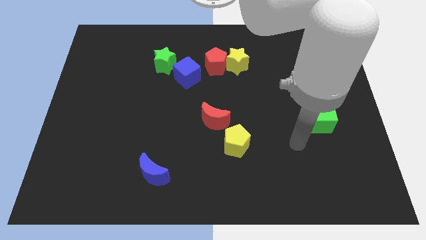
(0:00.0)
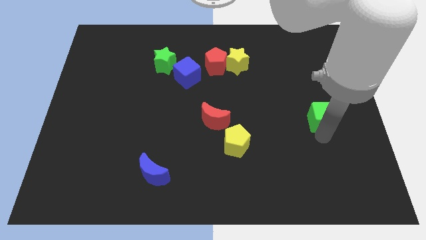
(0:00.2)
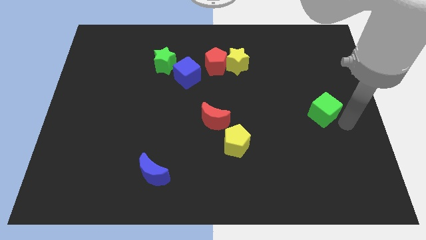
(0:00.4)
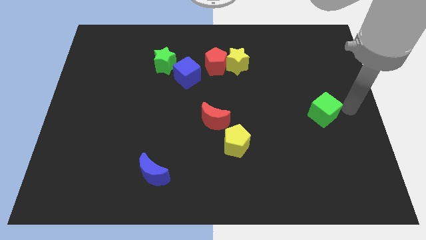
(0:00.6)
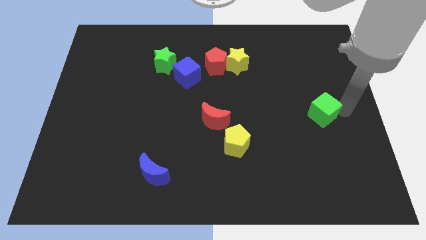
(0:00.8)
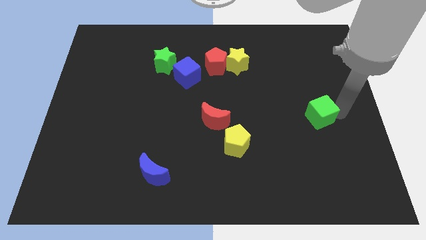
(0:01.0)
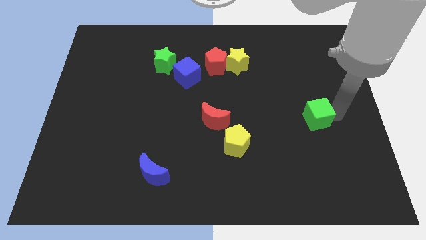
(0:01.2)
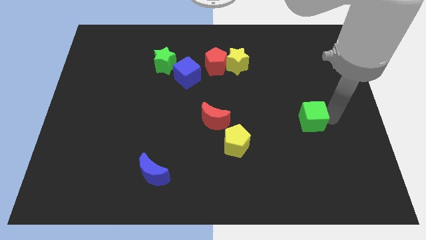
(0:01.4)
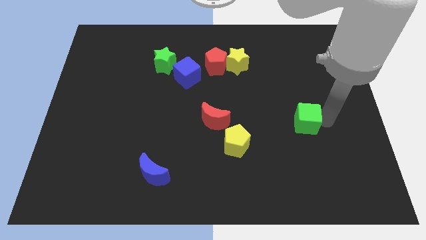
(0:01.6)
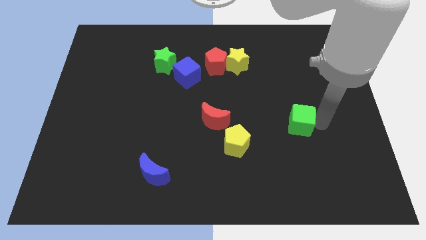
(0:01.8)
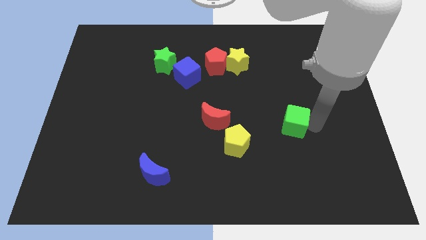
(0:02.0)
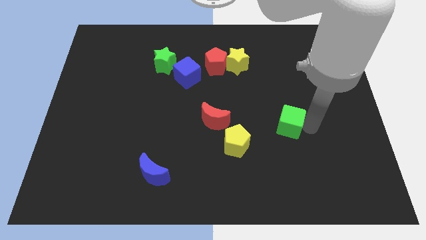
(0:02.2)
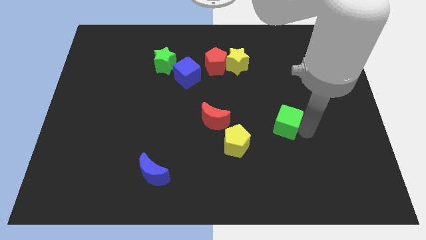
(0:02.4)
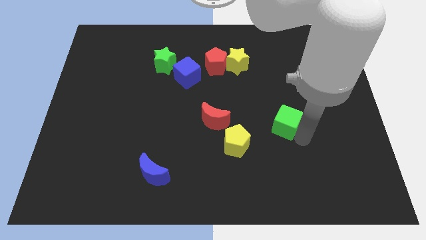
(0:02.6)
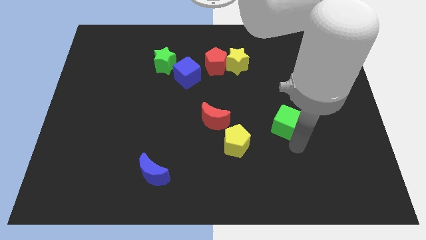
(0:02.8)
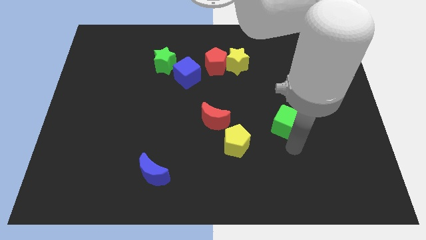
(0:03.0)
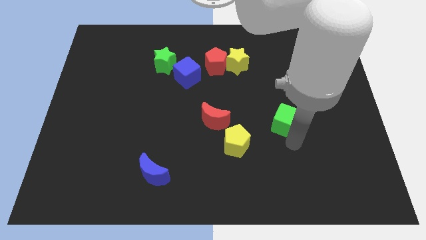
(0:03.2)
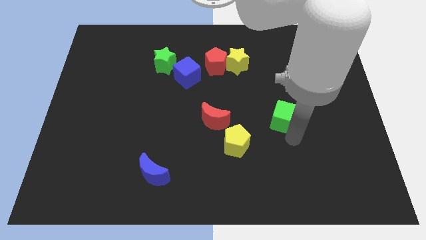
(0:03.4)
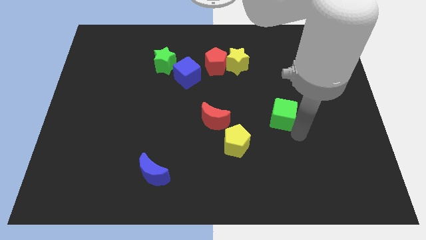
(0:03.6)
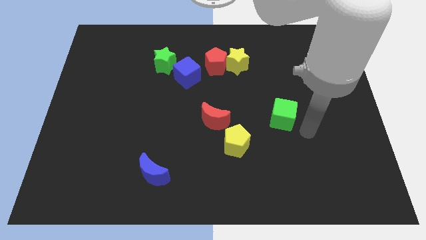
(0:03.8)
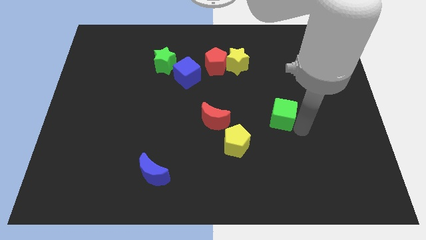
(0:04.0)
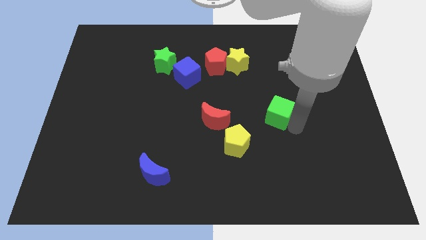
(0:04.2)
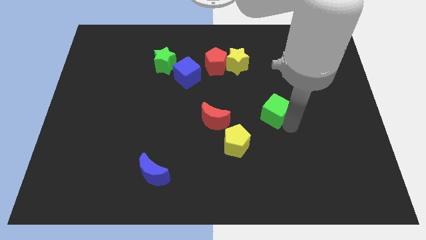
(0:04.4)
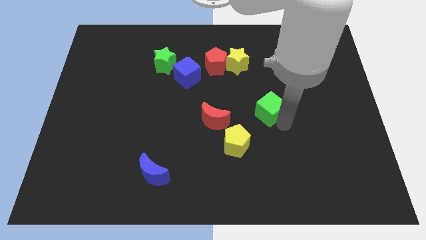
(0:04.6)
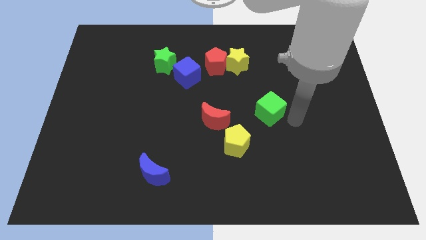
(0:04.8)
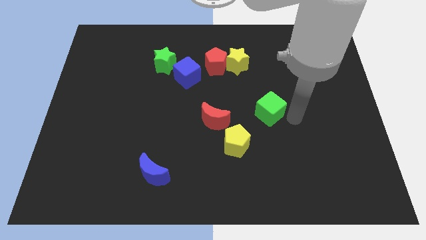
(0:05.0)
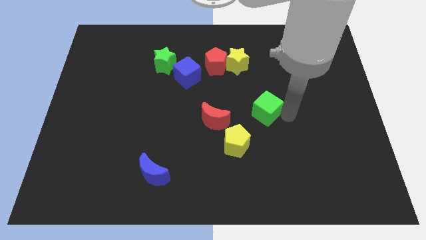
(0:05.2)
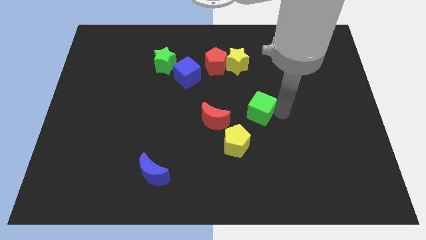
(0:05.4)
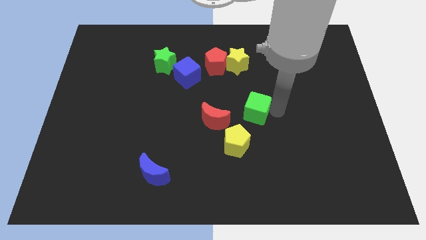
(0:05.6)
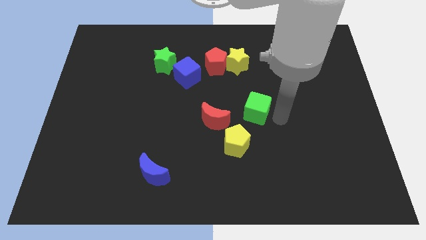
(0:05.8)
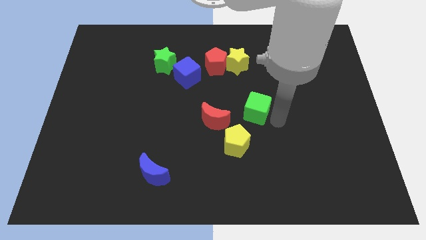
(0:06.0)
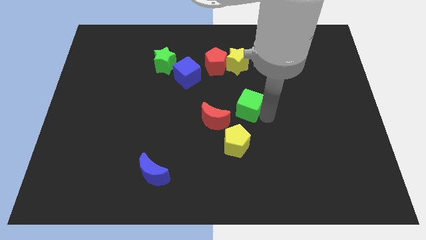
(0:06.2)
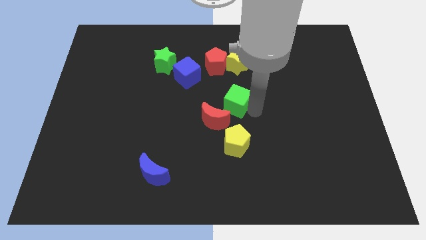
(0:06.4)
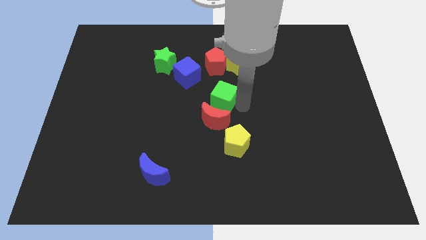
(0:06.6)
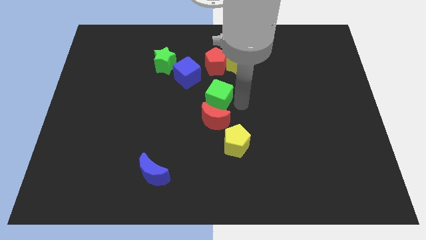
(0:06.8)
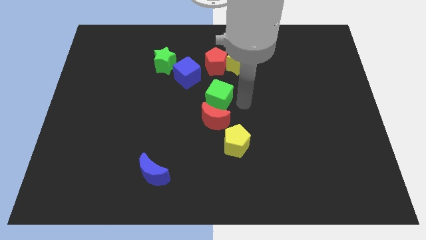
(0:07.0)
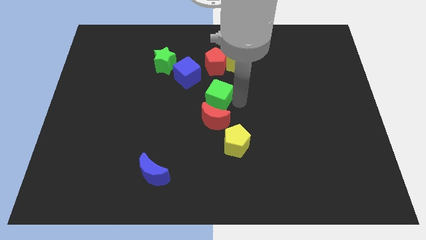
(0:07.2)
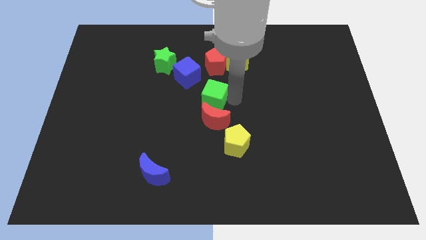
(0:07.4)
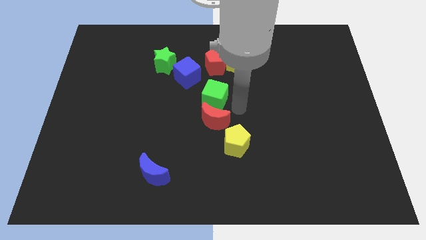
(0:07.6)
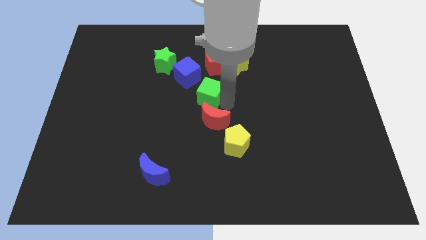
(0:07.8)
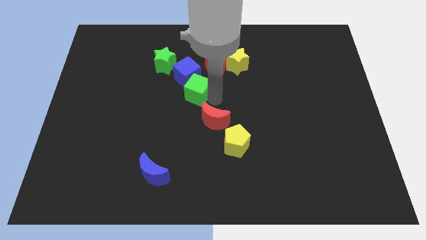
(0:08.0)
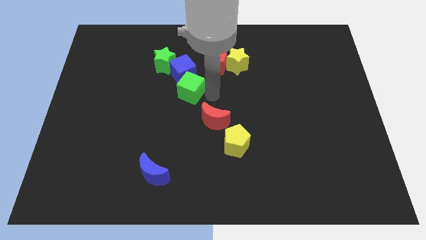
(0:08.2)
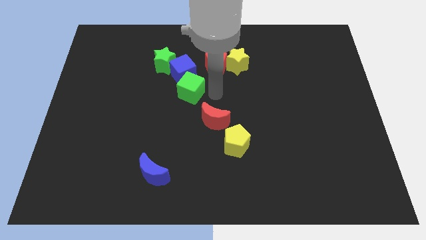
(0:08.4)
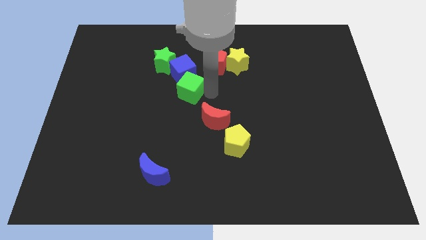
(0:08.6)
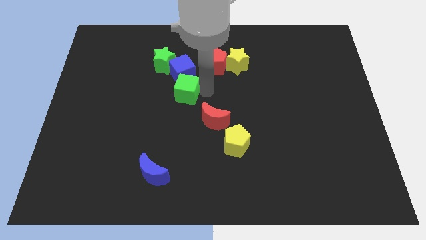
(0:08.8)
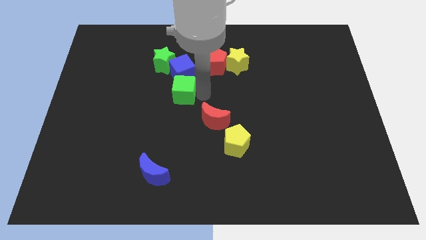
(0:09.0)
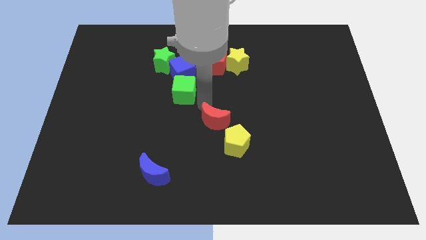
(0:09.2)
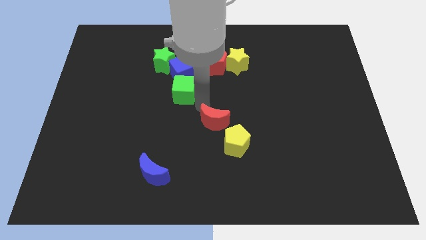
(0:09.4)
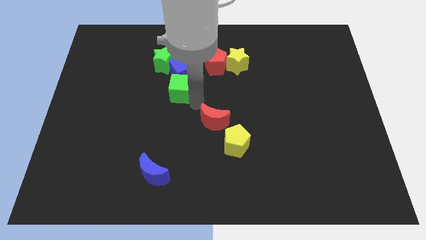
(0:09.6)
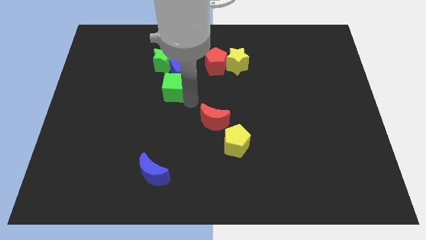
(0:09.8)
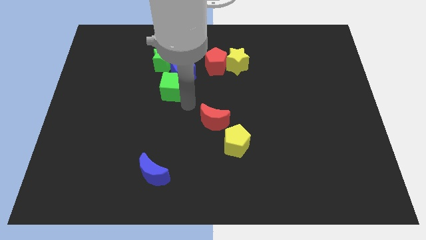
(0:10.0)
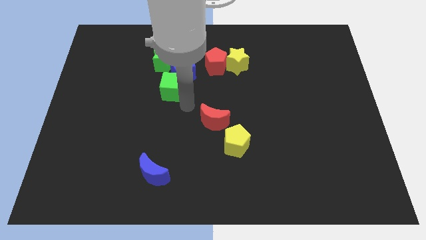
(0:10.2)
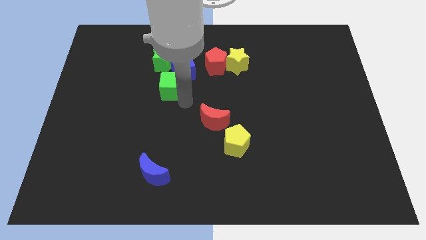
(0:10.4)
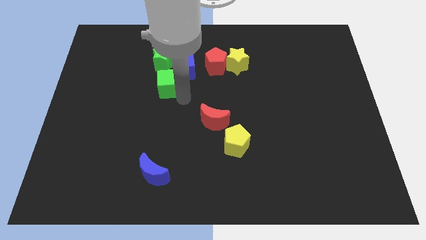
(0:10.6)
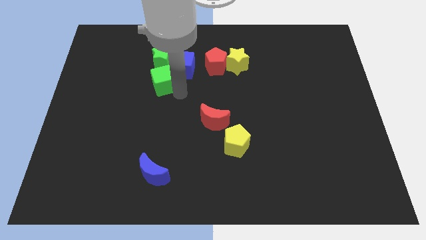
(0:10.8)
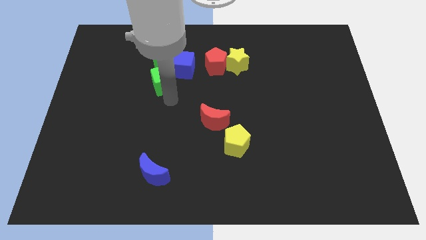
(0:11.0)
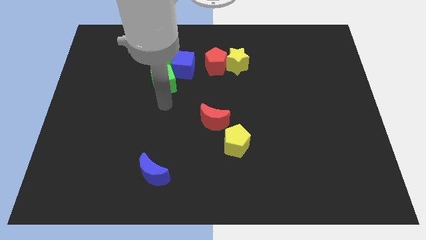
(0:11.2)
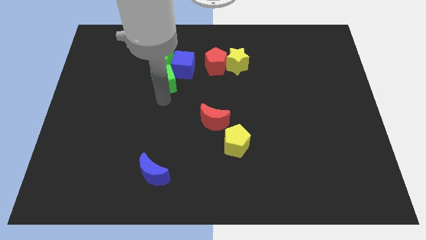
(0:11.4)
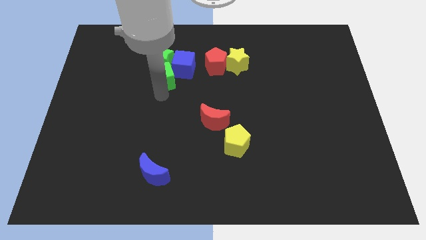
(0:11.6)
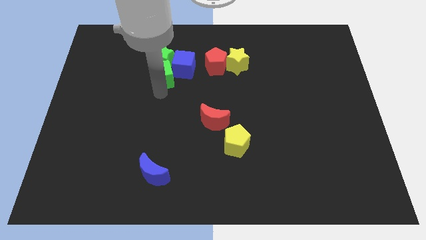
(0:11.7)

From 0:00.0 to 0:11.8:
slide the green cube towards the green star
